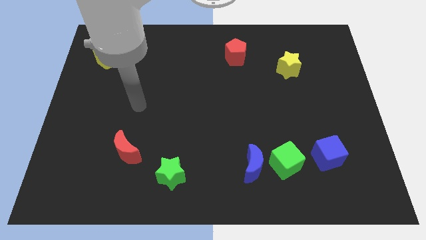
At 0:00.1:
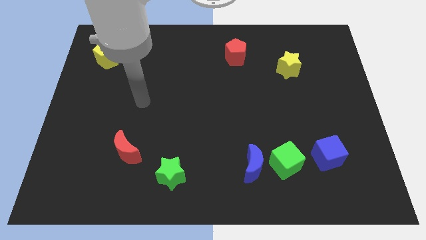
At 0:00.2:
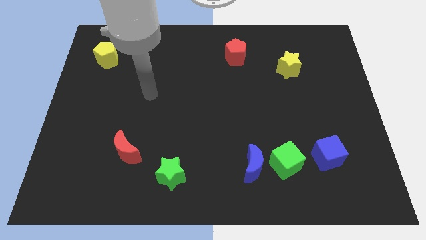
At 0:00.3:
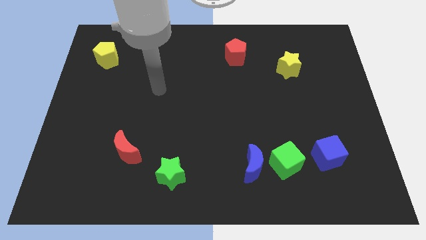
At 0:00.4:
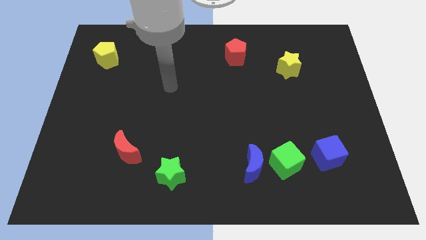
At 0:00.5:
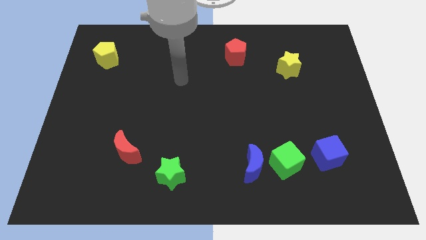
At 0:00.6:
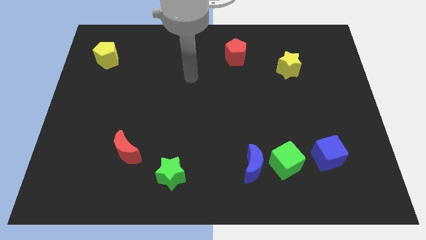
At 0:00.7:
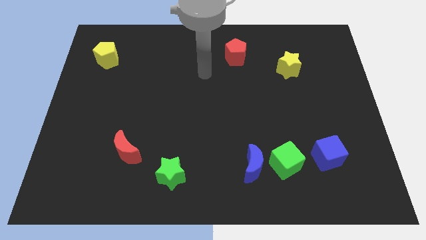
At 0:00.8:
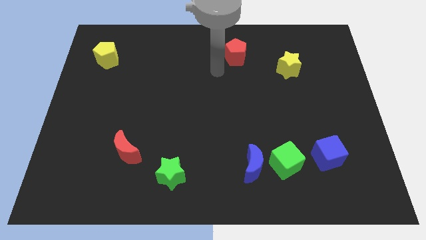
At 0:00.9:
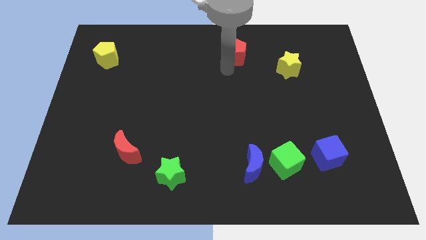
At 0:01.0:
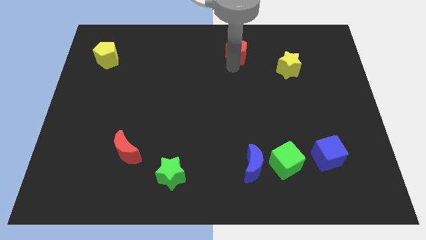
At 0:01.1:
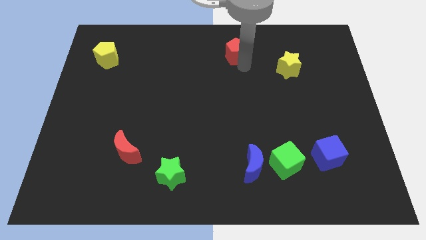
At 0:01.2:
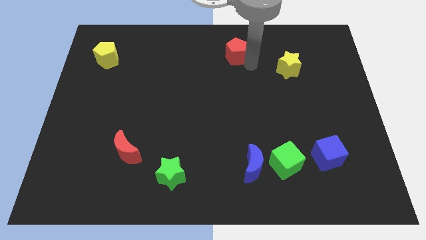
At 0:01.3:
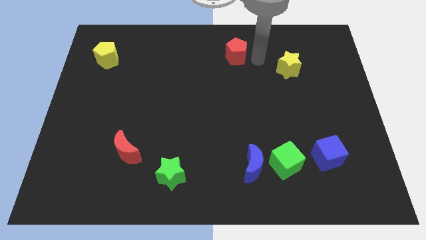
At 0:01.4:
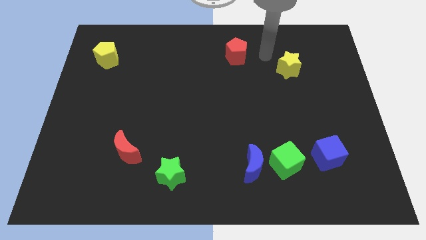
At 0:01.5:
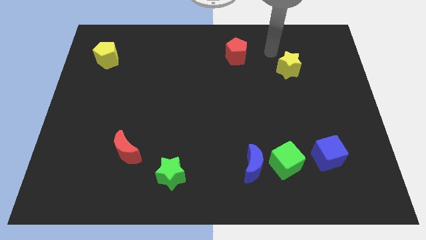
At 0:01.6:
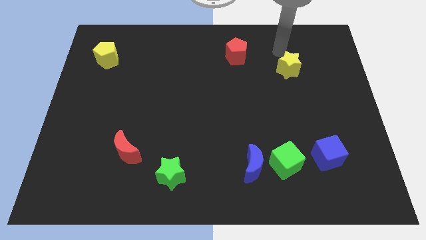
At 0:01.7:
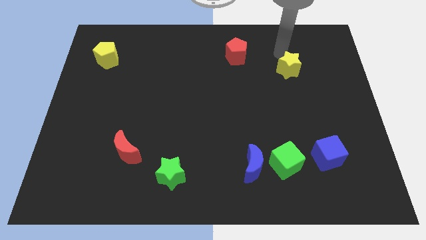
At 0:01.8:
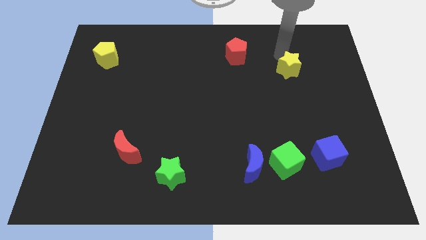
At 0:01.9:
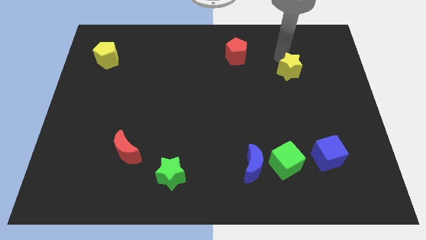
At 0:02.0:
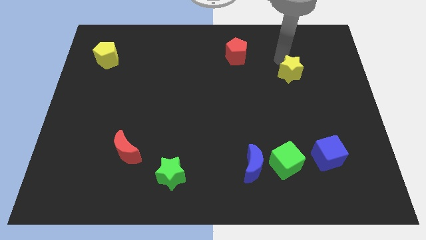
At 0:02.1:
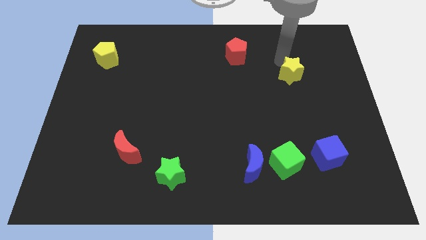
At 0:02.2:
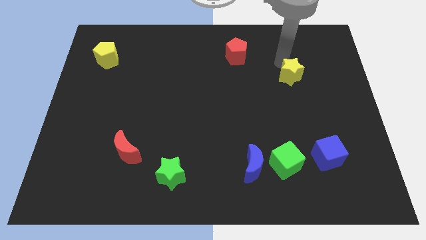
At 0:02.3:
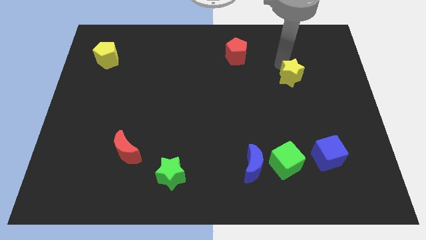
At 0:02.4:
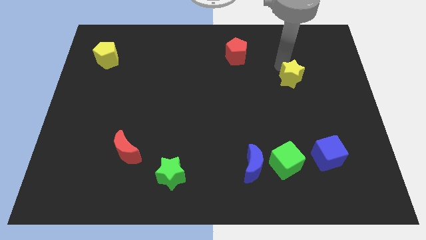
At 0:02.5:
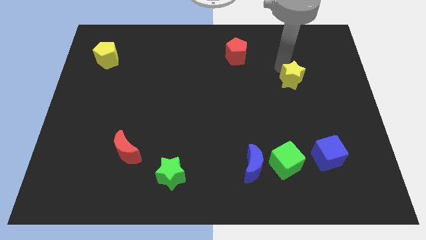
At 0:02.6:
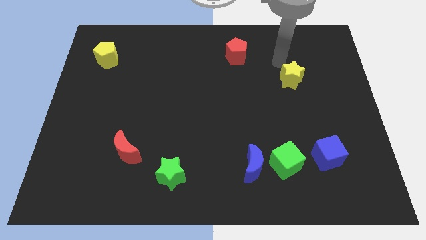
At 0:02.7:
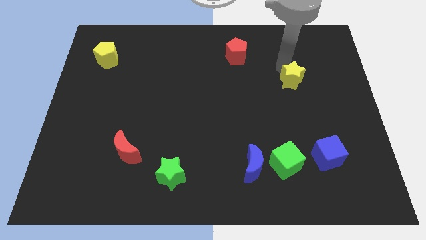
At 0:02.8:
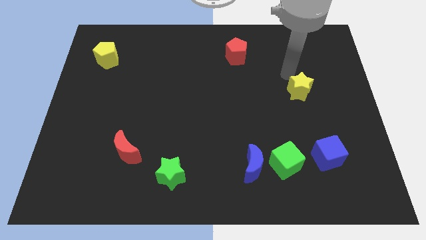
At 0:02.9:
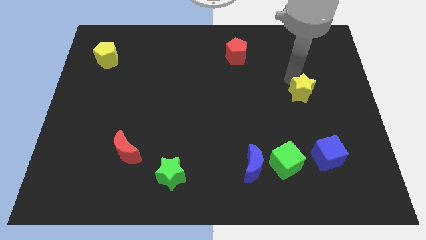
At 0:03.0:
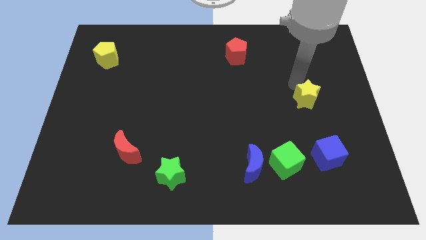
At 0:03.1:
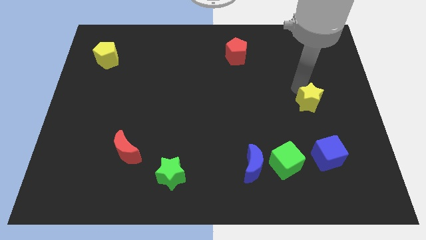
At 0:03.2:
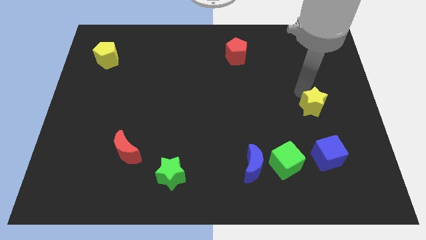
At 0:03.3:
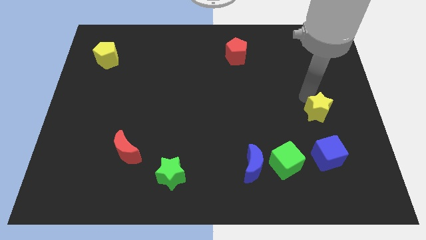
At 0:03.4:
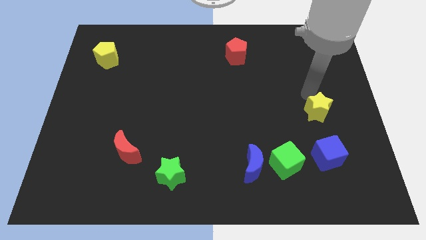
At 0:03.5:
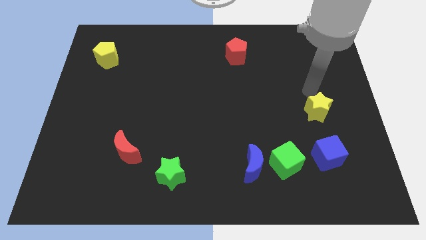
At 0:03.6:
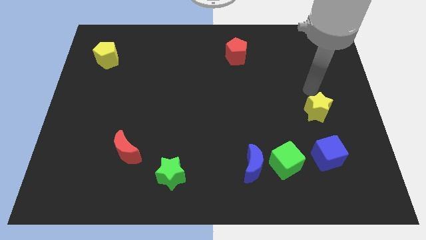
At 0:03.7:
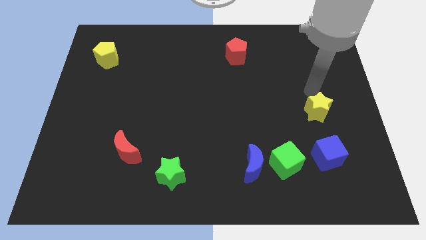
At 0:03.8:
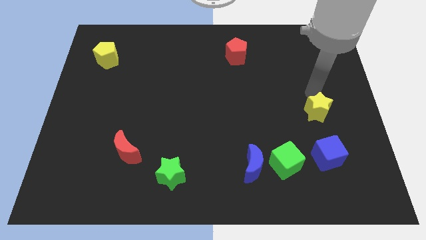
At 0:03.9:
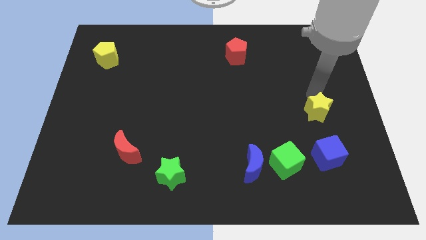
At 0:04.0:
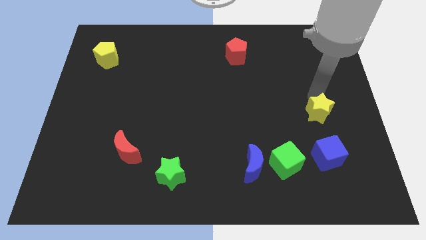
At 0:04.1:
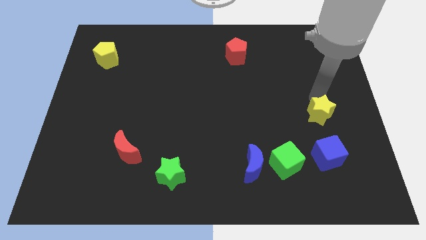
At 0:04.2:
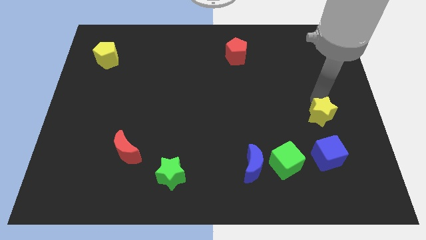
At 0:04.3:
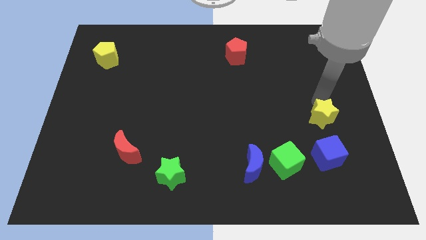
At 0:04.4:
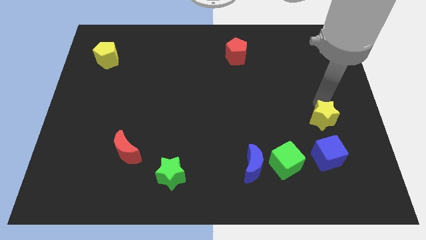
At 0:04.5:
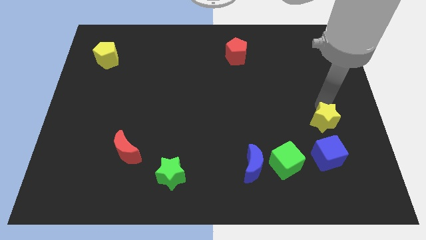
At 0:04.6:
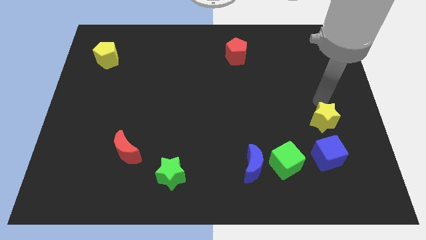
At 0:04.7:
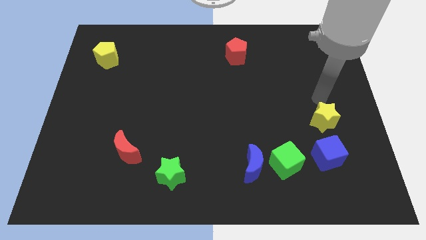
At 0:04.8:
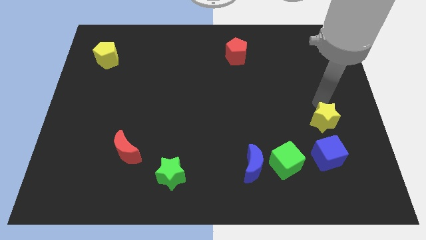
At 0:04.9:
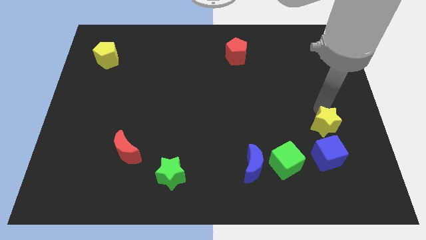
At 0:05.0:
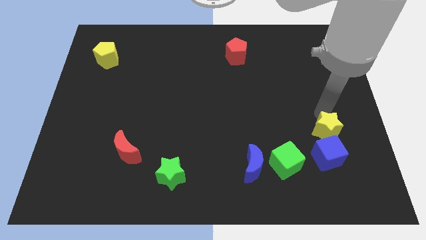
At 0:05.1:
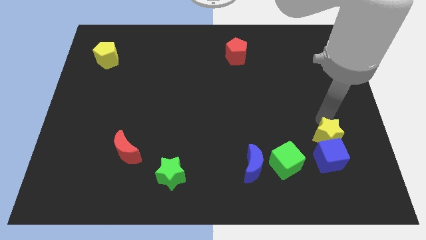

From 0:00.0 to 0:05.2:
put the yellow star to the blue cube
